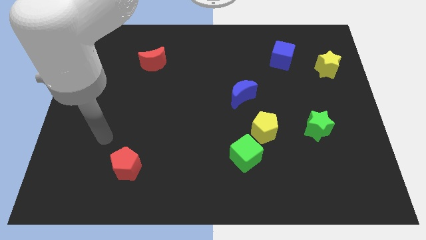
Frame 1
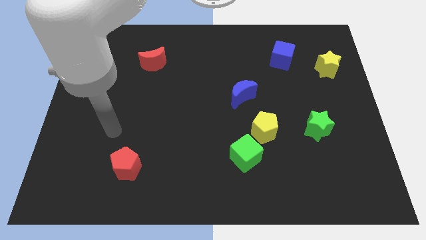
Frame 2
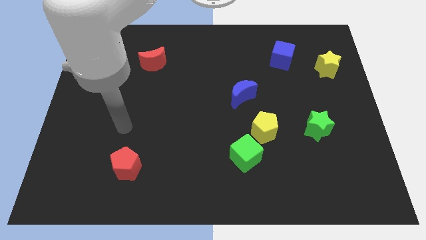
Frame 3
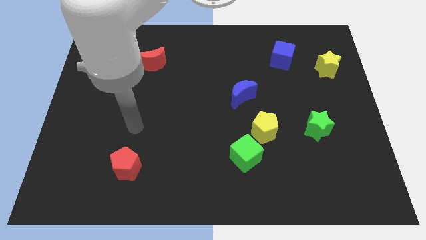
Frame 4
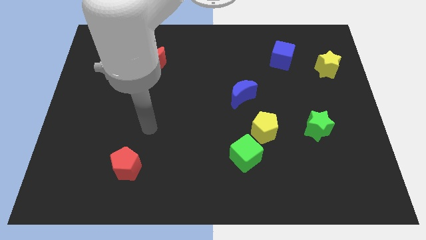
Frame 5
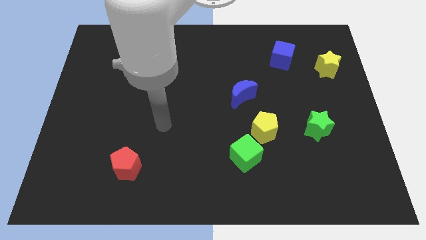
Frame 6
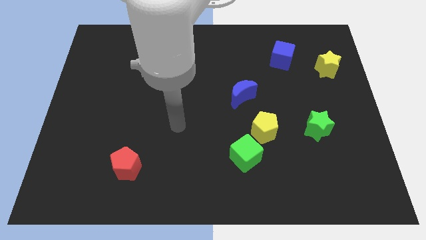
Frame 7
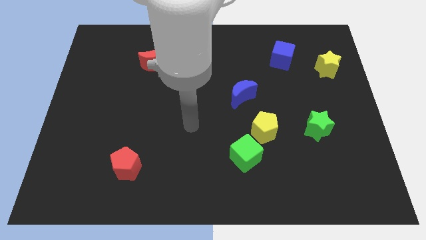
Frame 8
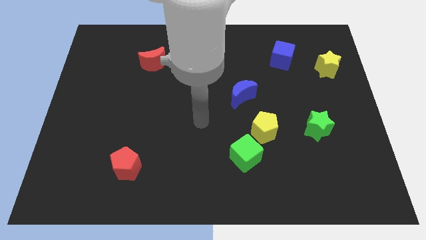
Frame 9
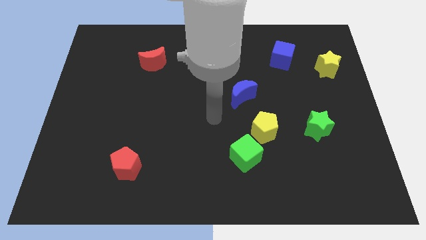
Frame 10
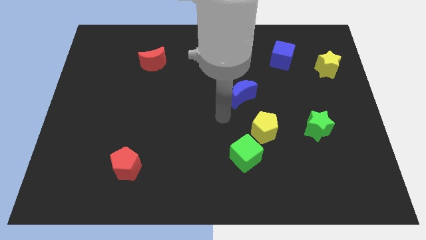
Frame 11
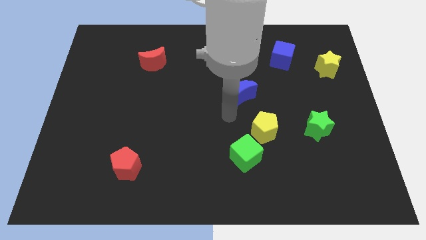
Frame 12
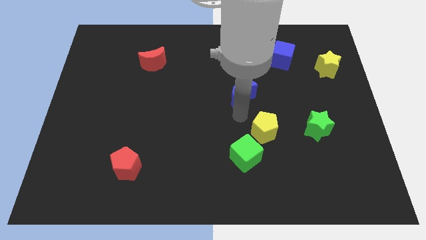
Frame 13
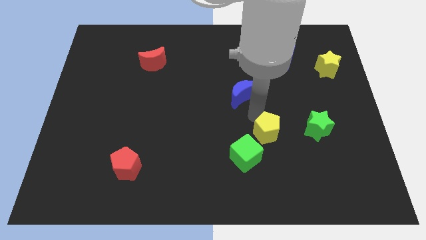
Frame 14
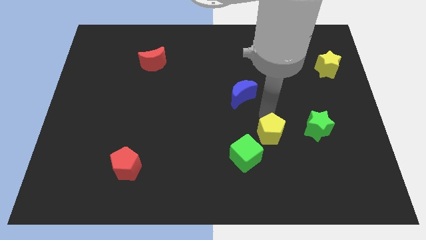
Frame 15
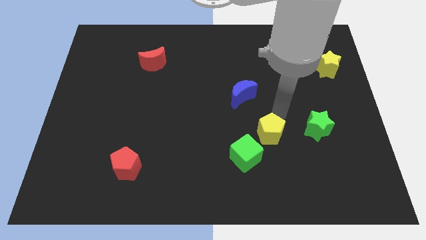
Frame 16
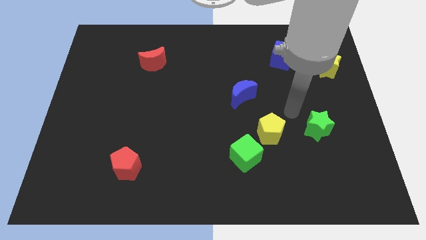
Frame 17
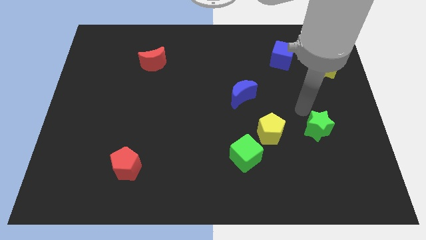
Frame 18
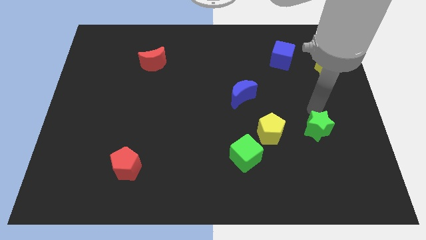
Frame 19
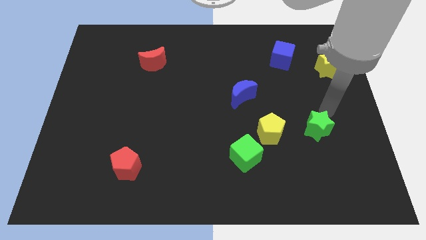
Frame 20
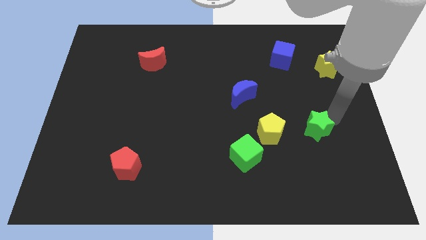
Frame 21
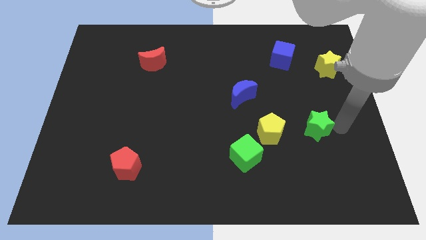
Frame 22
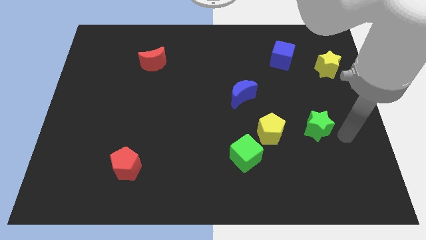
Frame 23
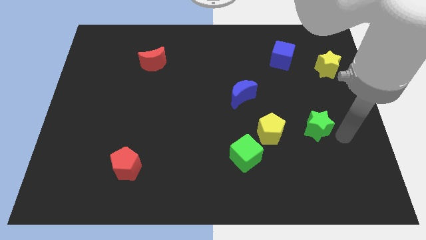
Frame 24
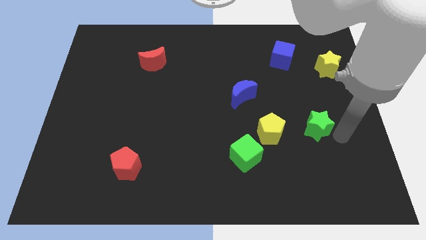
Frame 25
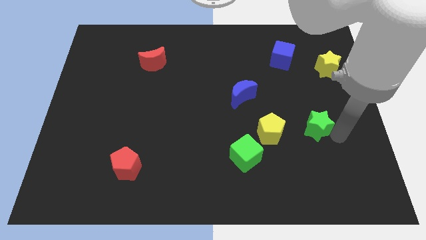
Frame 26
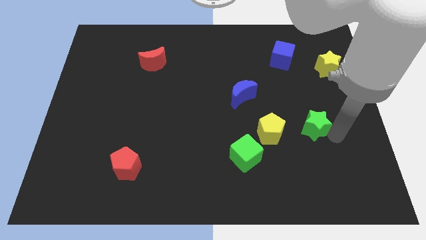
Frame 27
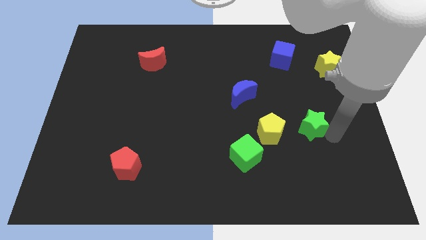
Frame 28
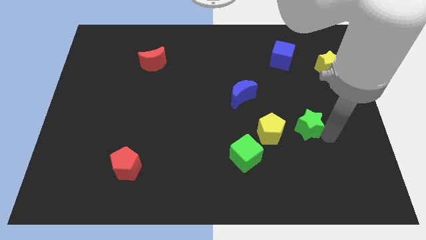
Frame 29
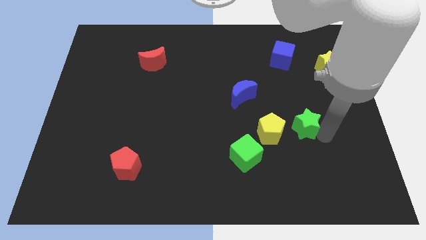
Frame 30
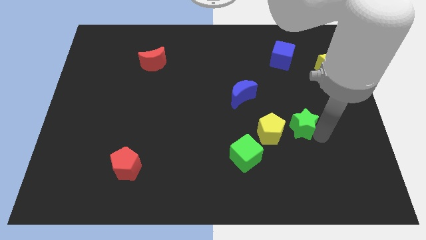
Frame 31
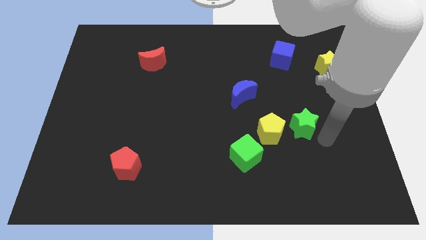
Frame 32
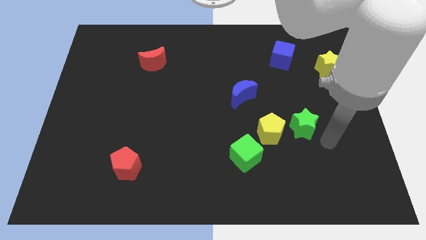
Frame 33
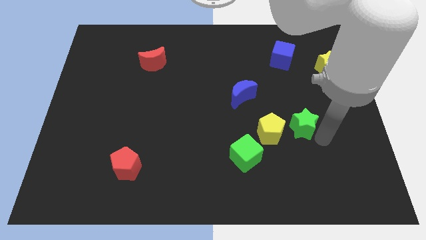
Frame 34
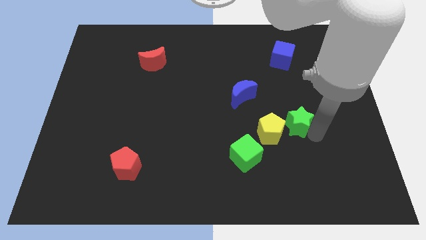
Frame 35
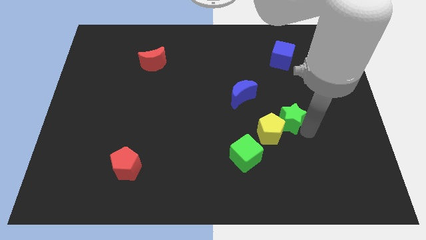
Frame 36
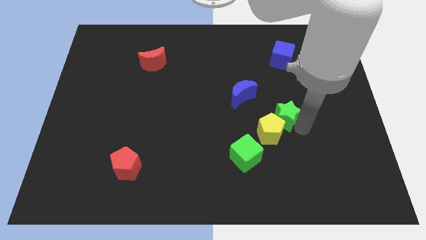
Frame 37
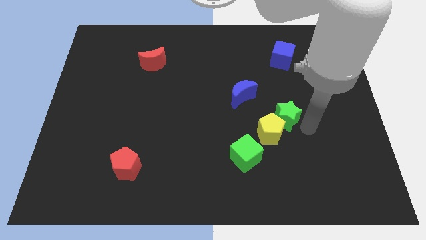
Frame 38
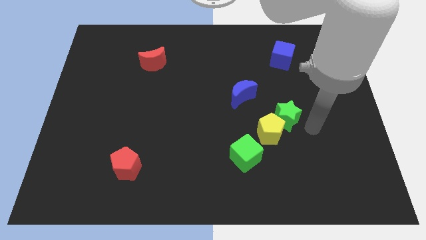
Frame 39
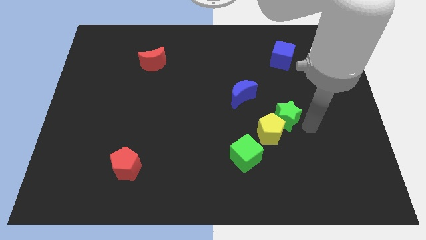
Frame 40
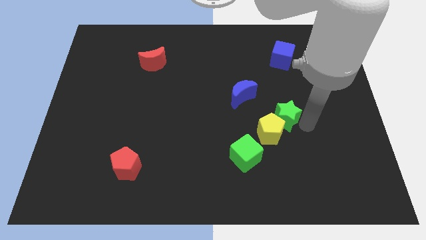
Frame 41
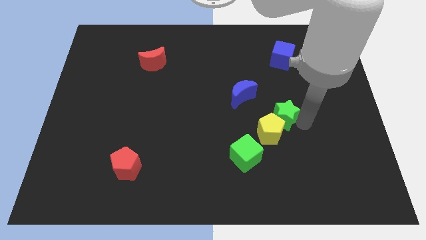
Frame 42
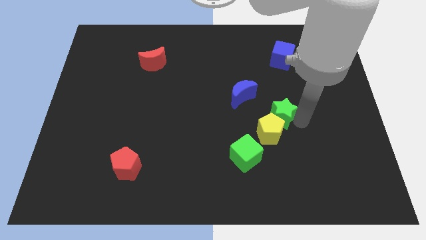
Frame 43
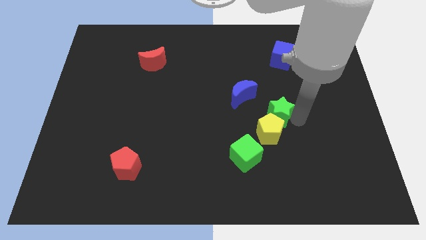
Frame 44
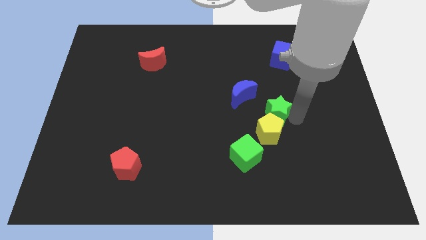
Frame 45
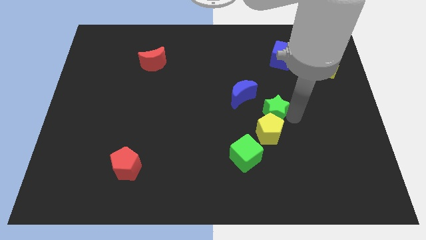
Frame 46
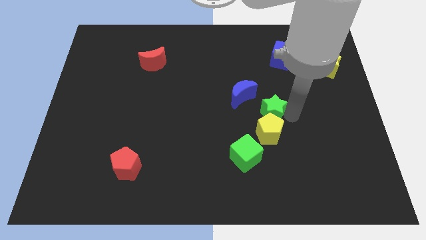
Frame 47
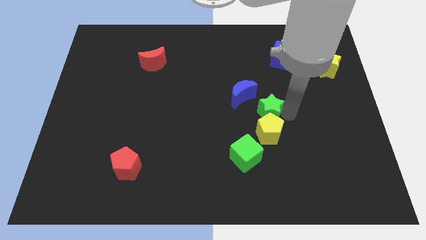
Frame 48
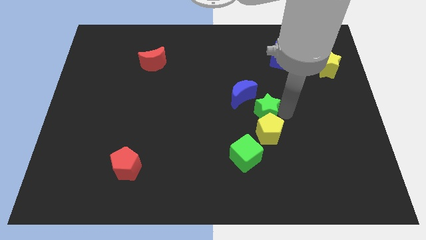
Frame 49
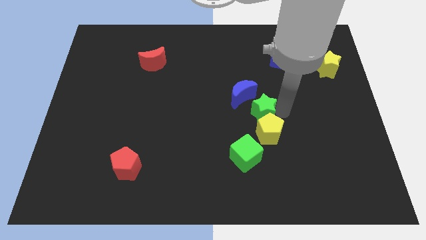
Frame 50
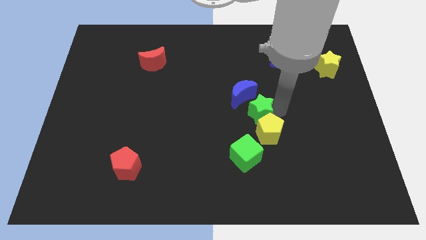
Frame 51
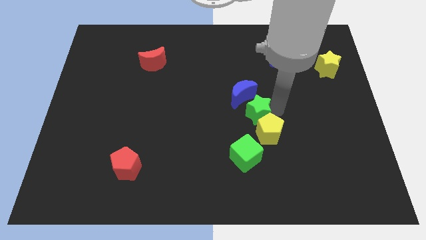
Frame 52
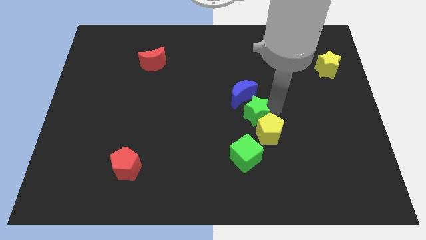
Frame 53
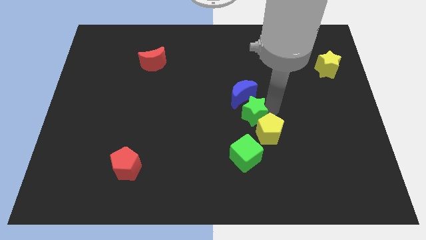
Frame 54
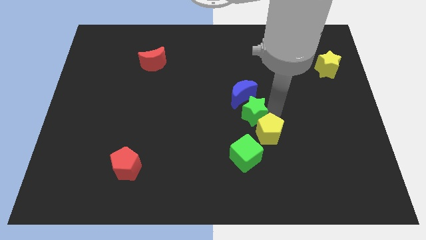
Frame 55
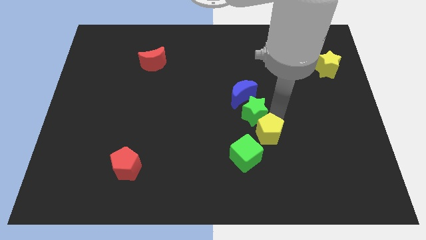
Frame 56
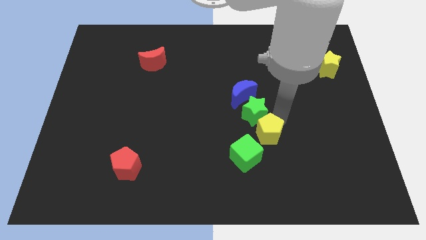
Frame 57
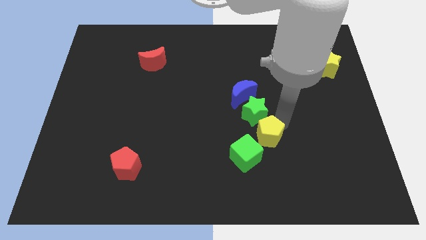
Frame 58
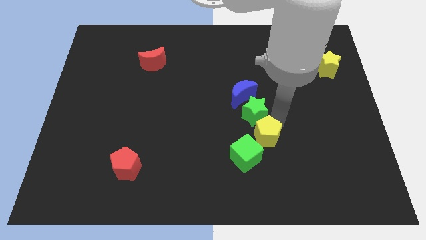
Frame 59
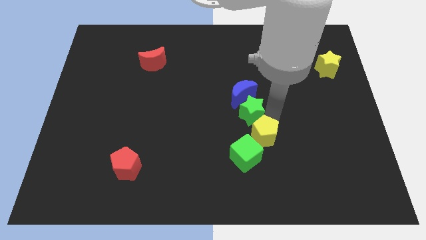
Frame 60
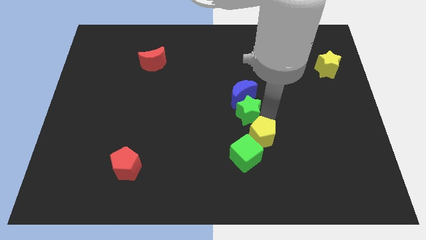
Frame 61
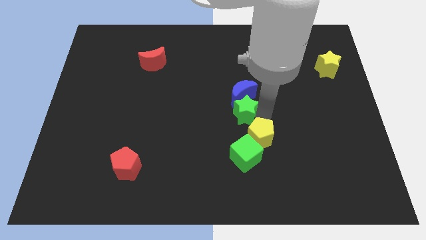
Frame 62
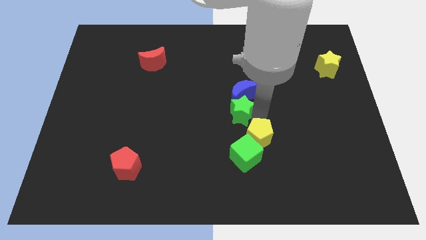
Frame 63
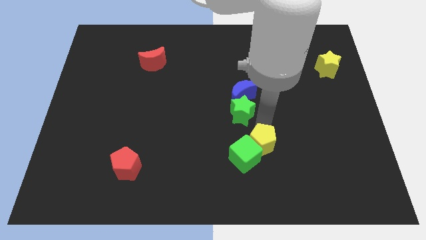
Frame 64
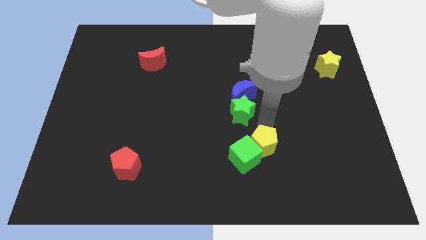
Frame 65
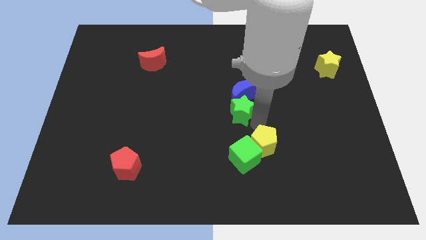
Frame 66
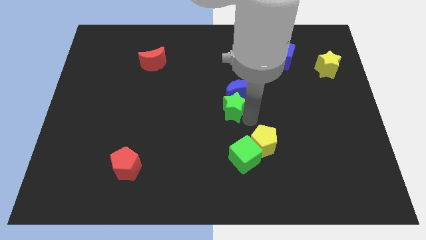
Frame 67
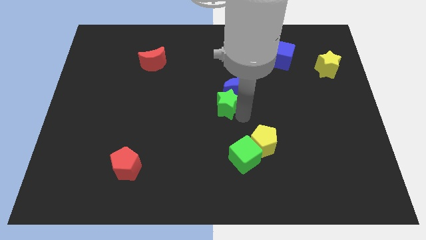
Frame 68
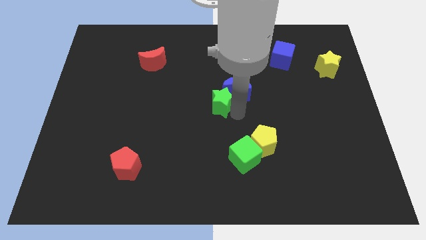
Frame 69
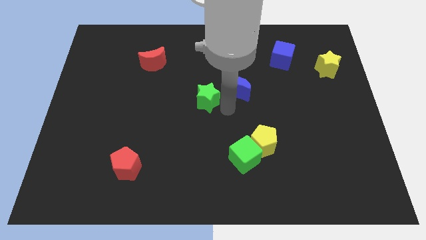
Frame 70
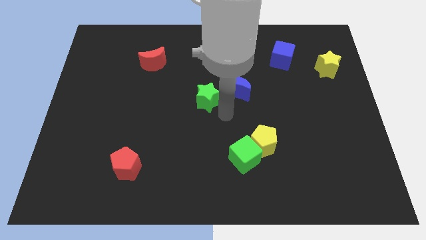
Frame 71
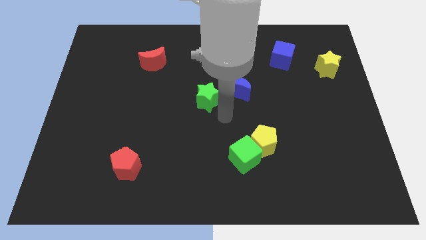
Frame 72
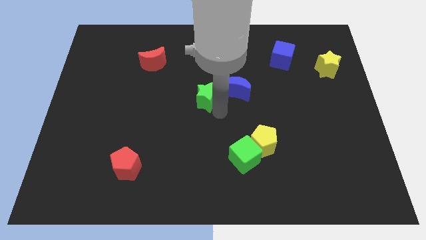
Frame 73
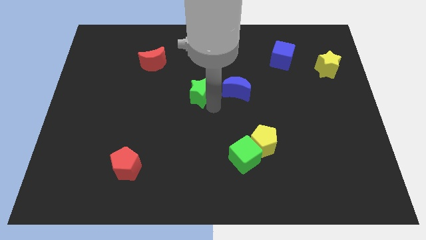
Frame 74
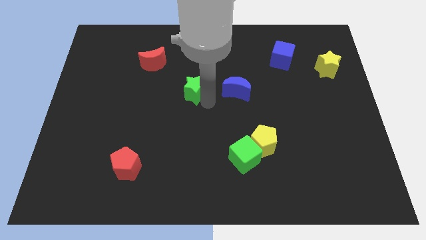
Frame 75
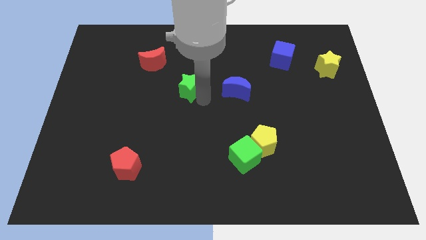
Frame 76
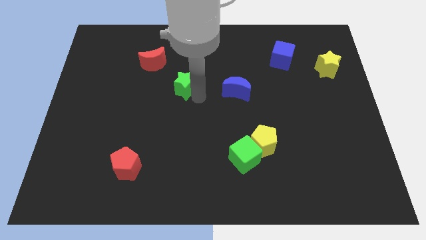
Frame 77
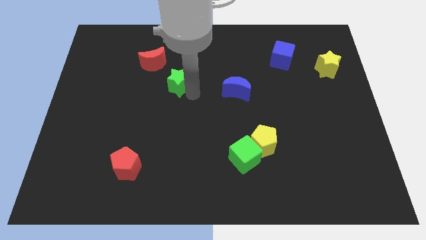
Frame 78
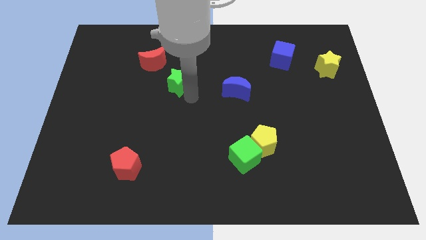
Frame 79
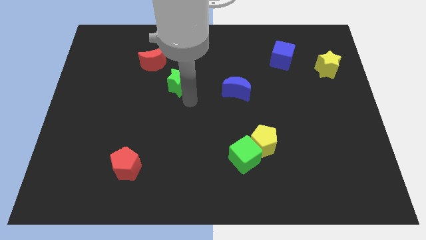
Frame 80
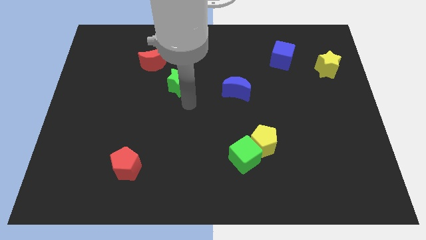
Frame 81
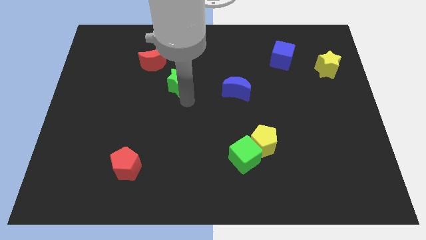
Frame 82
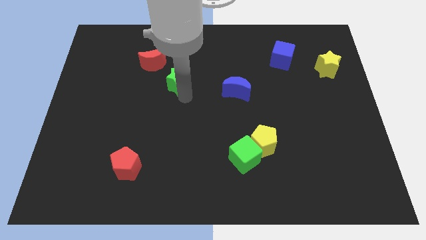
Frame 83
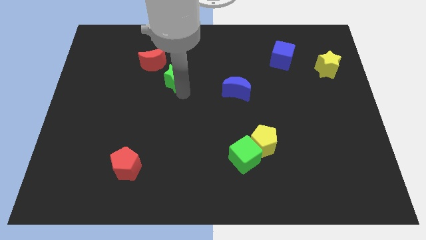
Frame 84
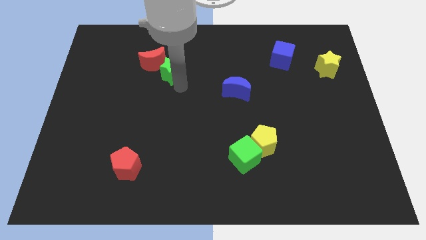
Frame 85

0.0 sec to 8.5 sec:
put the green star next to the red moon
